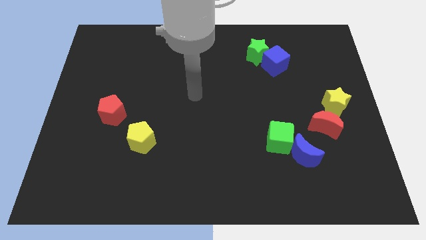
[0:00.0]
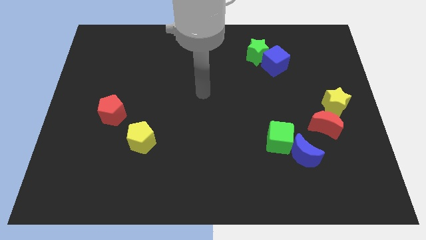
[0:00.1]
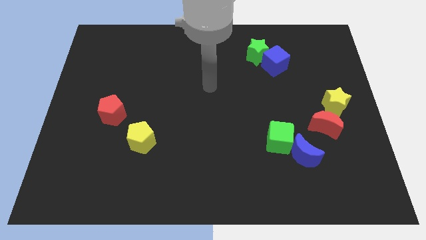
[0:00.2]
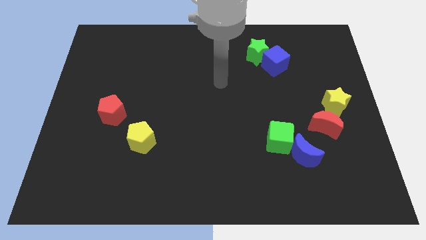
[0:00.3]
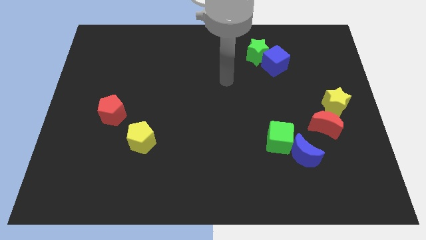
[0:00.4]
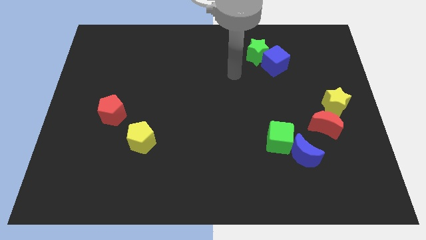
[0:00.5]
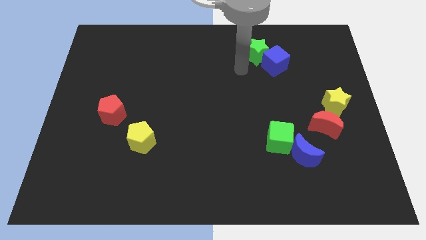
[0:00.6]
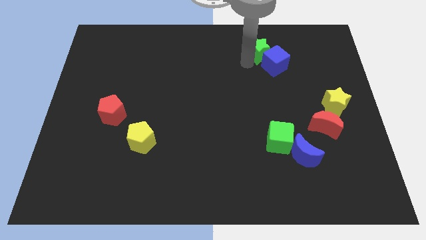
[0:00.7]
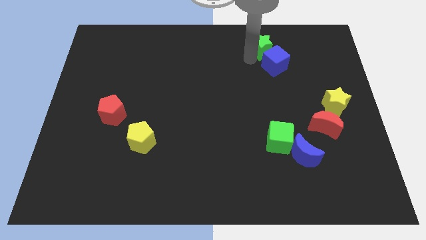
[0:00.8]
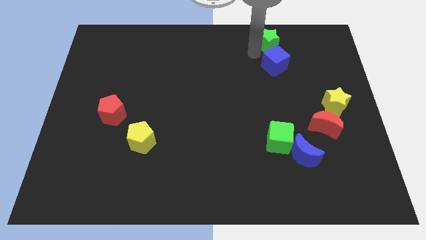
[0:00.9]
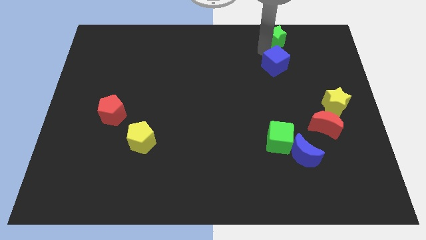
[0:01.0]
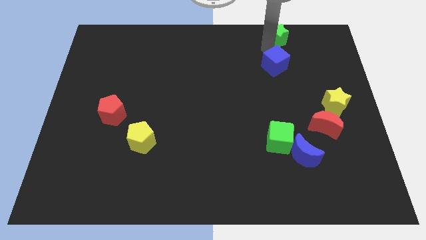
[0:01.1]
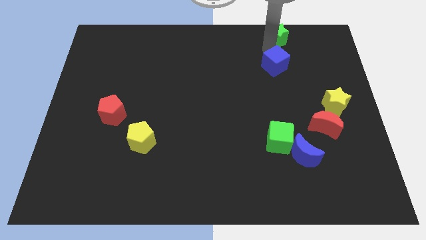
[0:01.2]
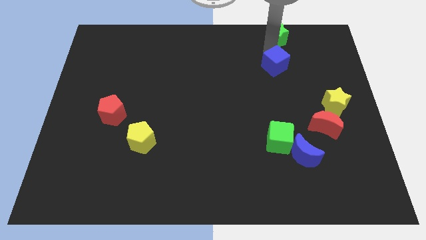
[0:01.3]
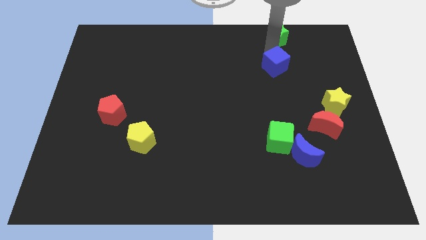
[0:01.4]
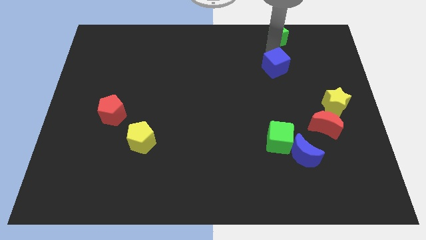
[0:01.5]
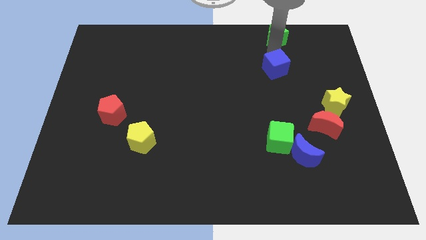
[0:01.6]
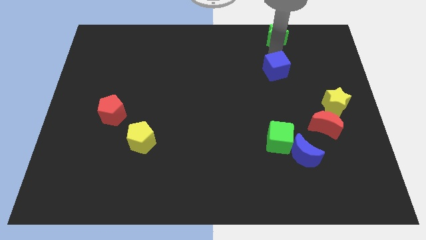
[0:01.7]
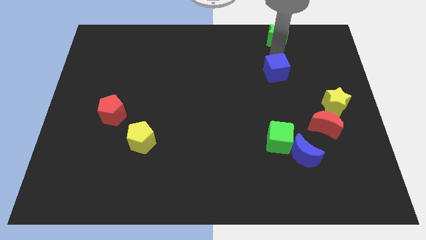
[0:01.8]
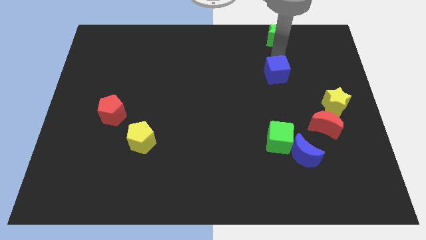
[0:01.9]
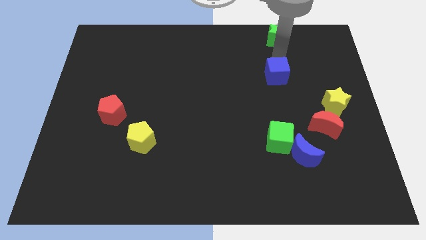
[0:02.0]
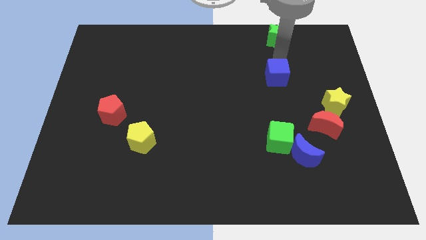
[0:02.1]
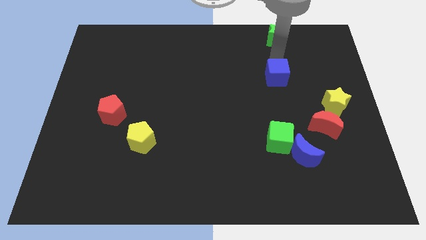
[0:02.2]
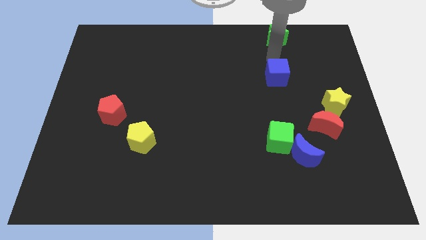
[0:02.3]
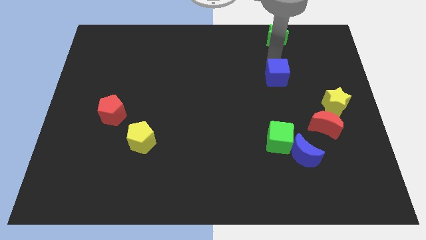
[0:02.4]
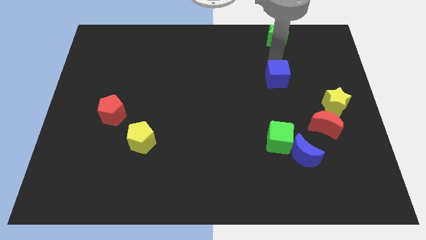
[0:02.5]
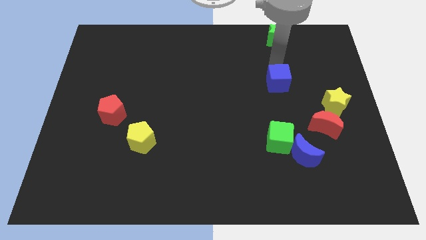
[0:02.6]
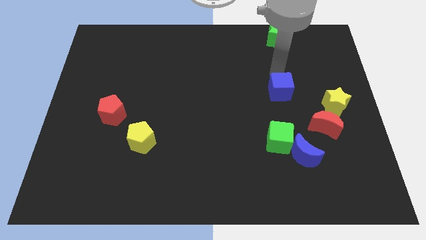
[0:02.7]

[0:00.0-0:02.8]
slide the blue cube downwards a bit

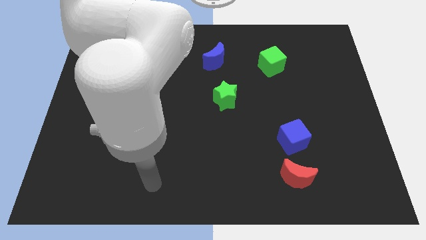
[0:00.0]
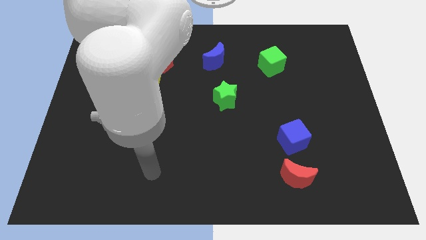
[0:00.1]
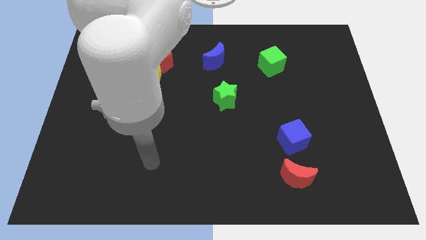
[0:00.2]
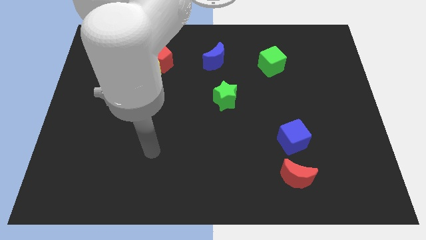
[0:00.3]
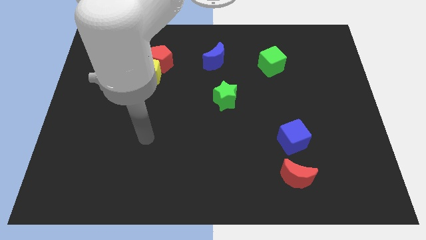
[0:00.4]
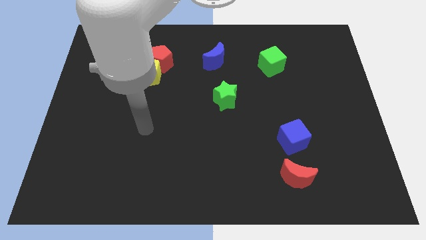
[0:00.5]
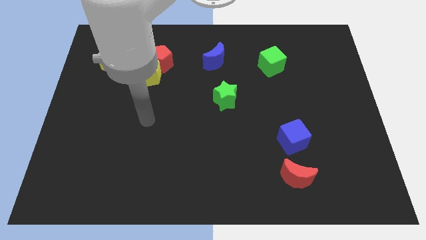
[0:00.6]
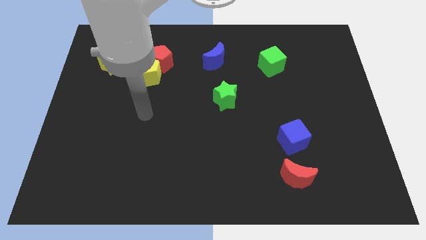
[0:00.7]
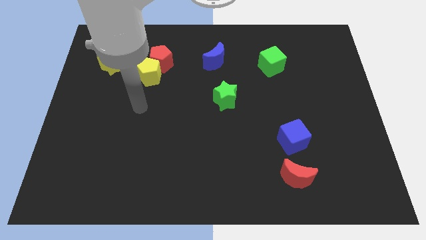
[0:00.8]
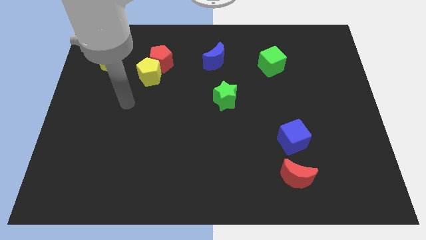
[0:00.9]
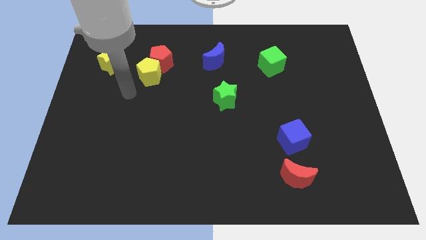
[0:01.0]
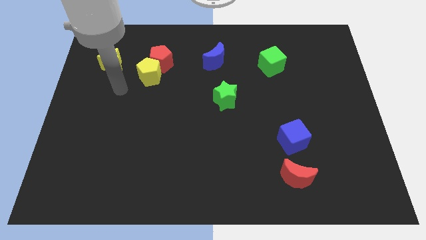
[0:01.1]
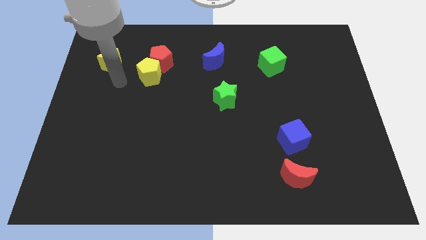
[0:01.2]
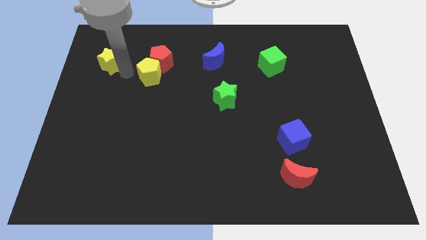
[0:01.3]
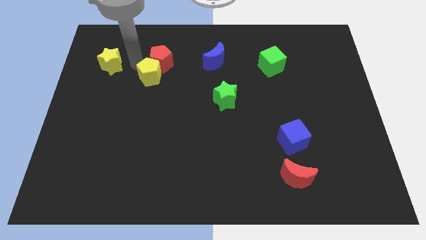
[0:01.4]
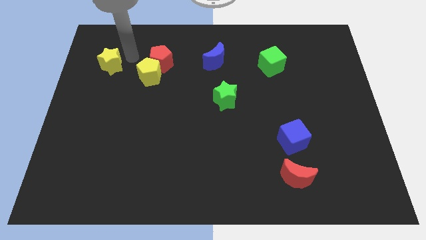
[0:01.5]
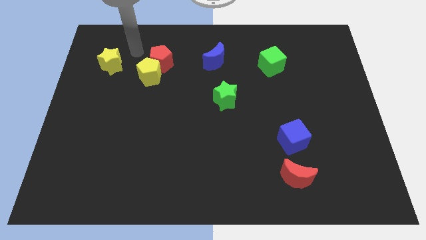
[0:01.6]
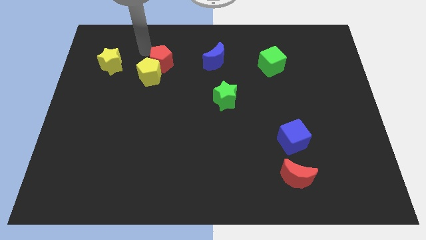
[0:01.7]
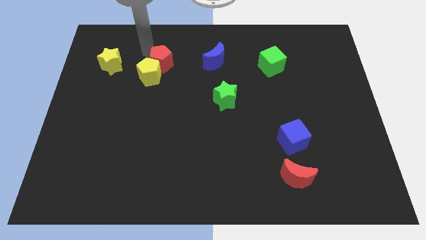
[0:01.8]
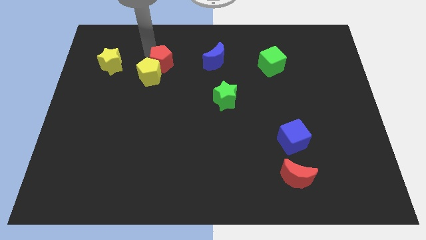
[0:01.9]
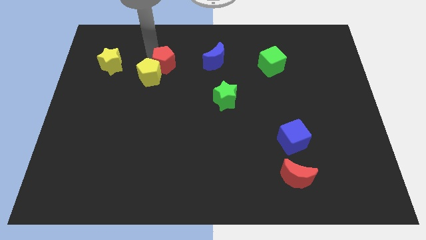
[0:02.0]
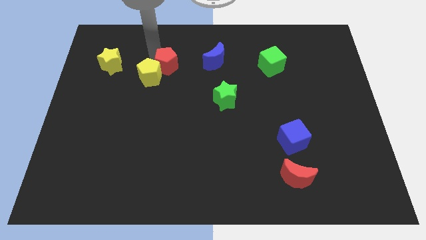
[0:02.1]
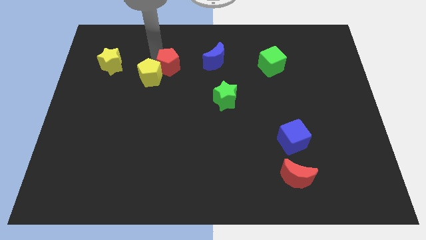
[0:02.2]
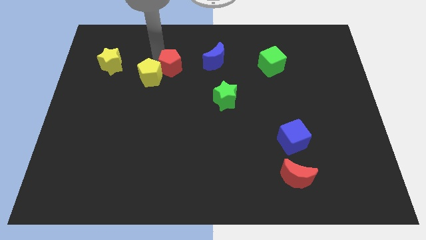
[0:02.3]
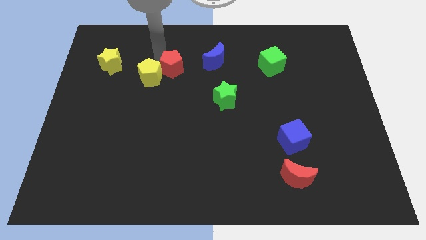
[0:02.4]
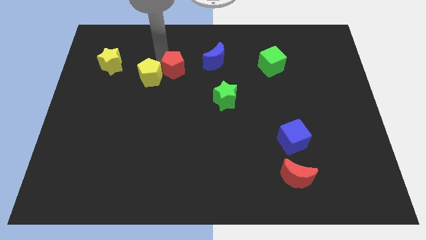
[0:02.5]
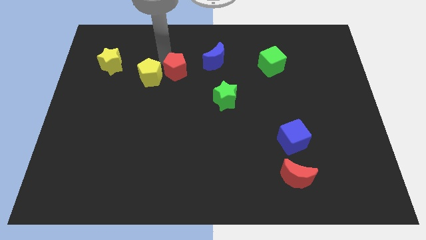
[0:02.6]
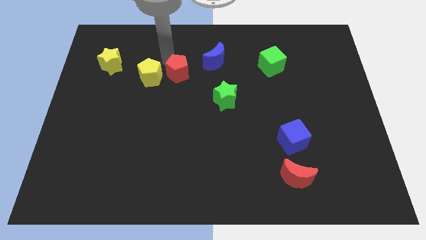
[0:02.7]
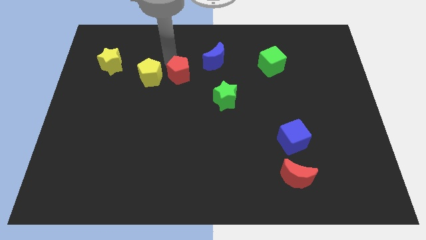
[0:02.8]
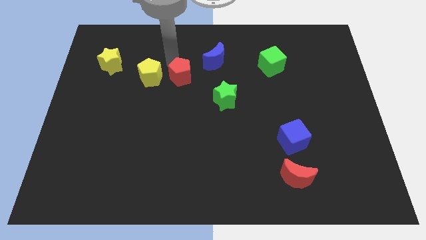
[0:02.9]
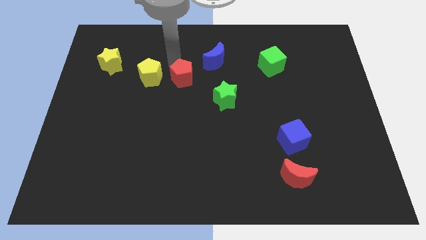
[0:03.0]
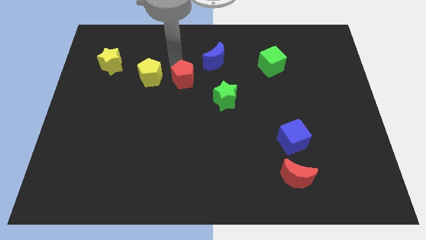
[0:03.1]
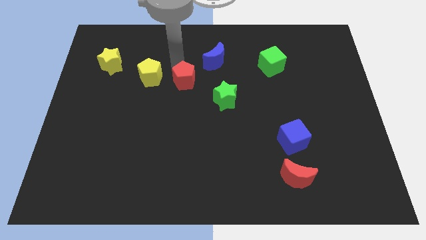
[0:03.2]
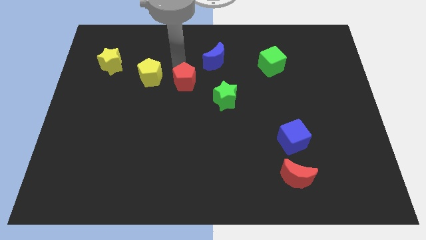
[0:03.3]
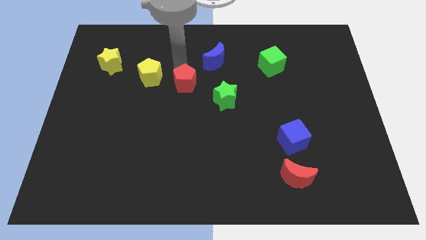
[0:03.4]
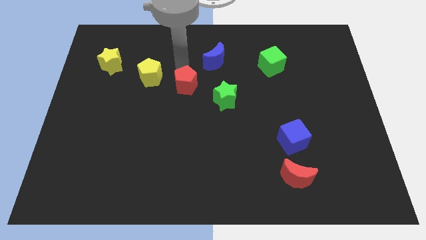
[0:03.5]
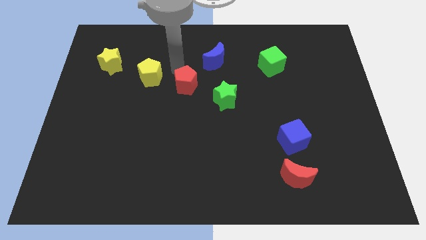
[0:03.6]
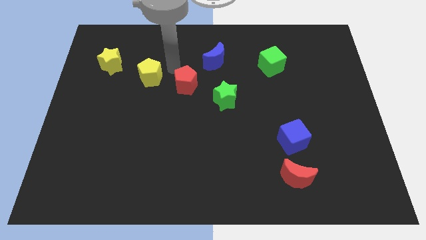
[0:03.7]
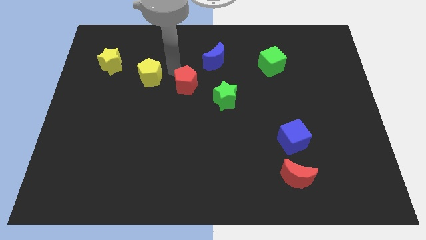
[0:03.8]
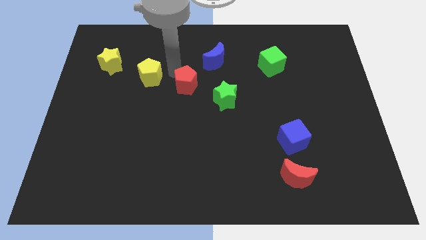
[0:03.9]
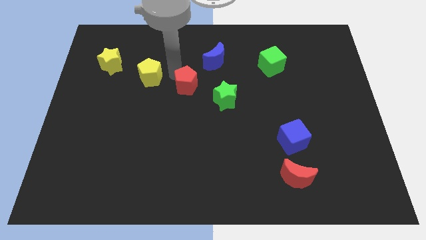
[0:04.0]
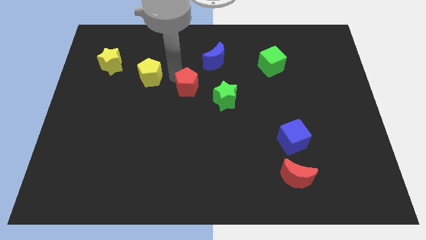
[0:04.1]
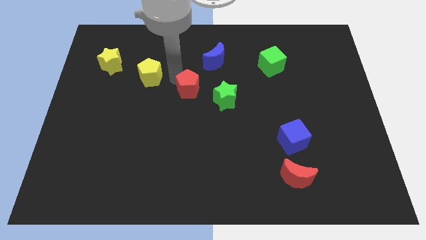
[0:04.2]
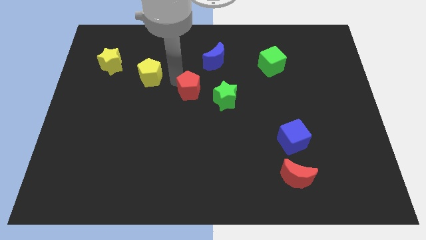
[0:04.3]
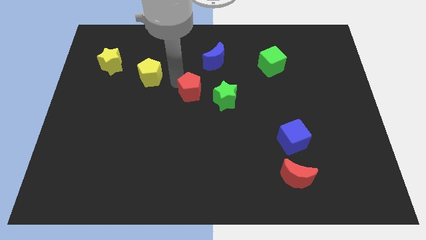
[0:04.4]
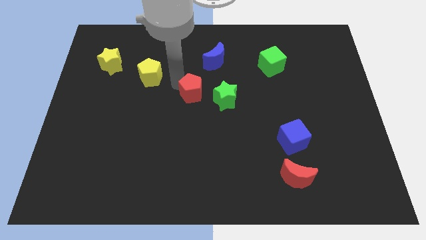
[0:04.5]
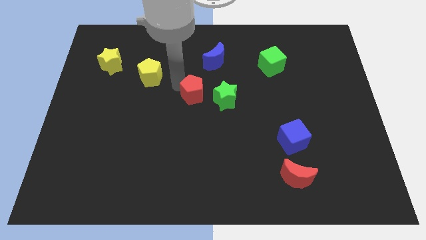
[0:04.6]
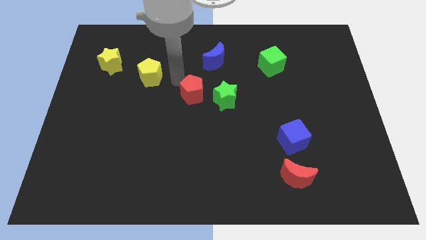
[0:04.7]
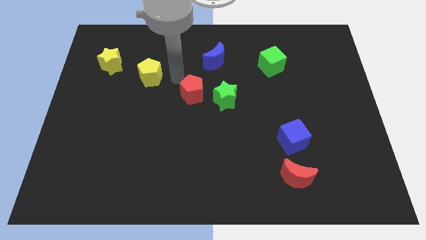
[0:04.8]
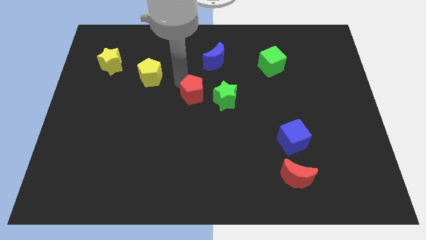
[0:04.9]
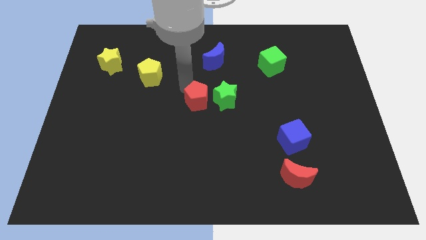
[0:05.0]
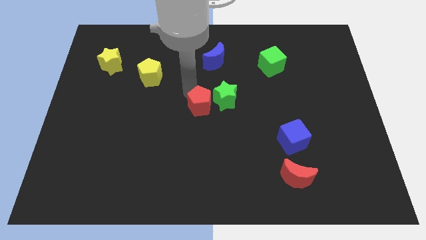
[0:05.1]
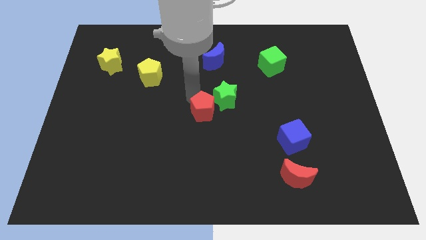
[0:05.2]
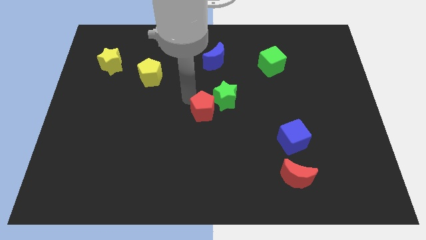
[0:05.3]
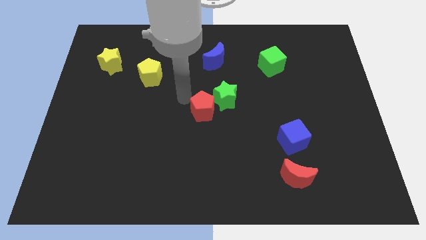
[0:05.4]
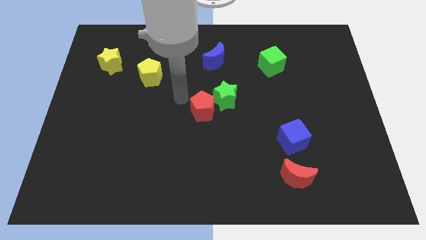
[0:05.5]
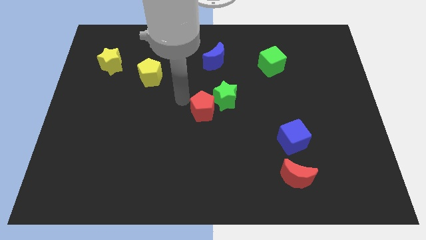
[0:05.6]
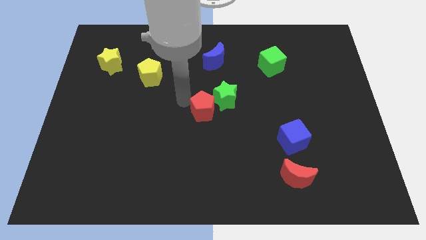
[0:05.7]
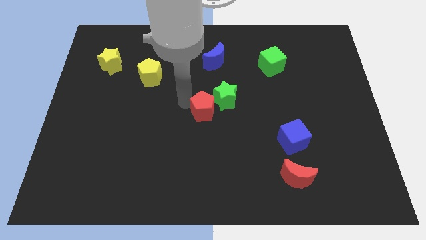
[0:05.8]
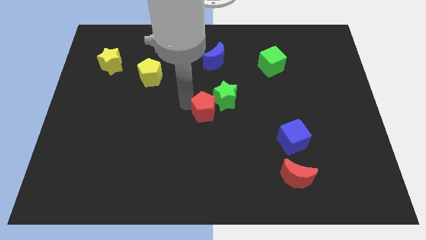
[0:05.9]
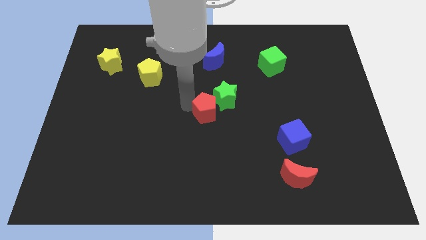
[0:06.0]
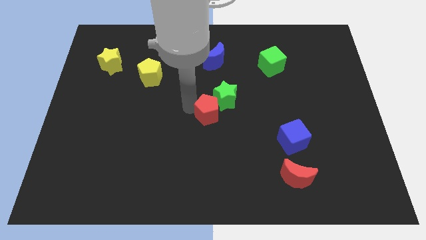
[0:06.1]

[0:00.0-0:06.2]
move the red pentagon down and to the right diagonally
